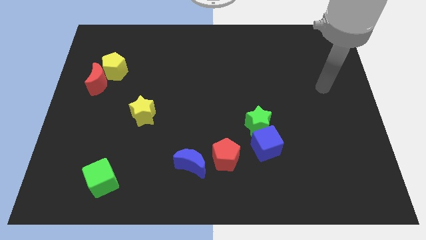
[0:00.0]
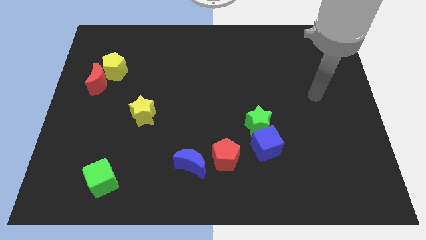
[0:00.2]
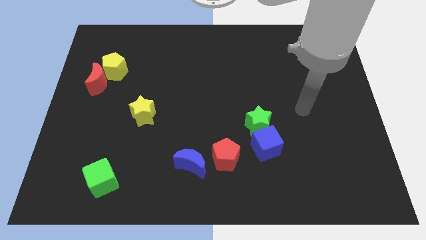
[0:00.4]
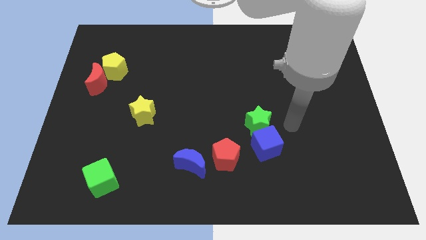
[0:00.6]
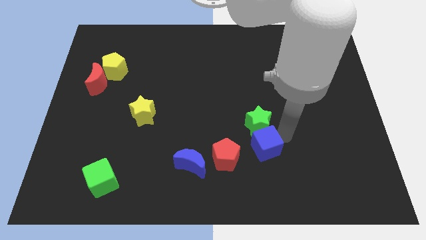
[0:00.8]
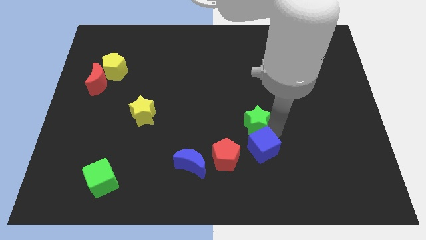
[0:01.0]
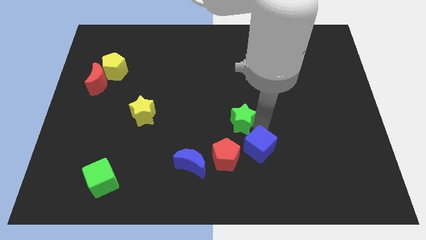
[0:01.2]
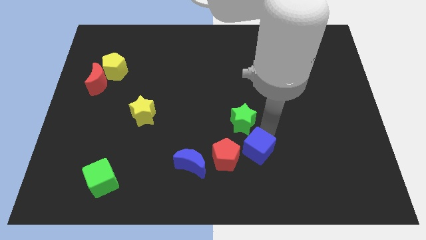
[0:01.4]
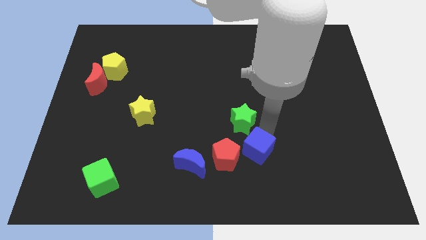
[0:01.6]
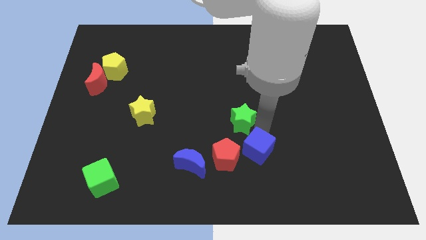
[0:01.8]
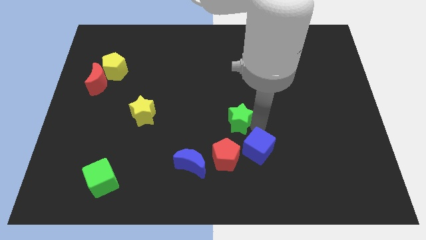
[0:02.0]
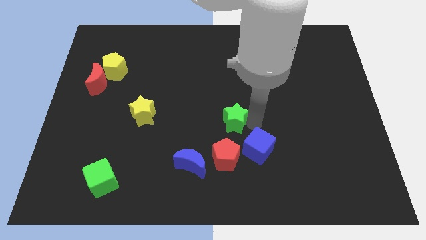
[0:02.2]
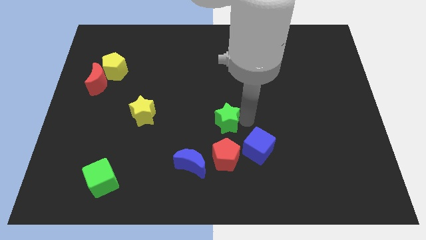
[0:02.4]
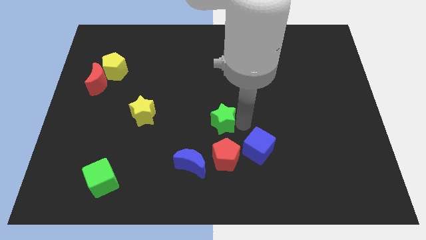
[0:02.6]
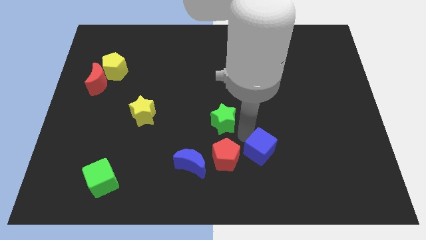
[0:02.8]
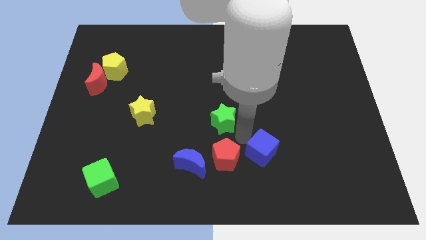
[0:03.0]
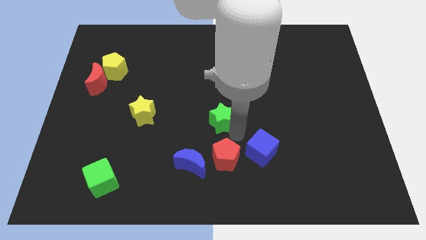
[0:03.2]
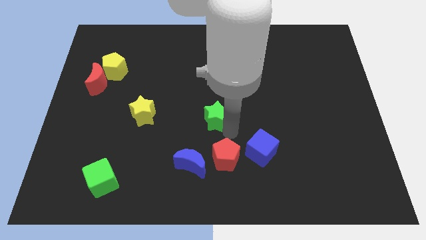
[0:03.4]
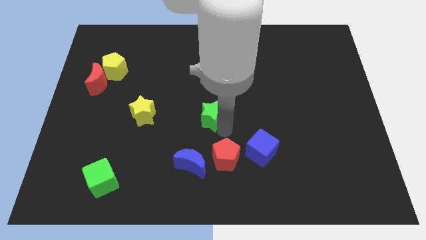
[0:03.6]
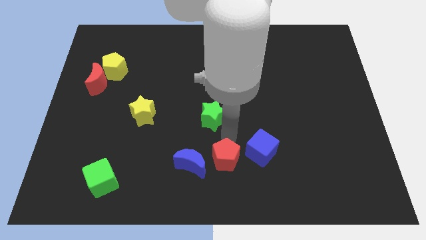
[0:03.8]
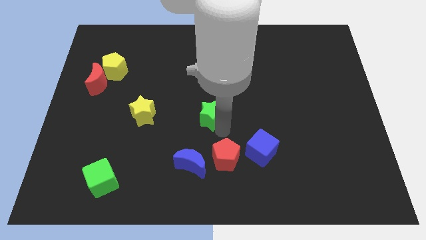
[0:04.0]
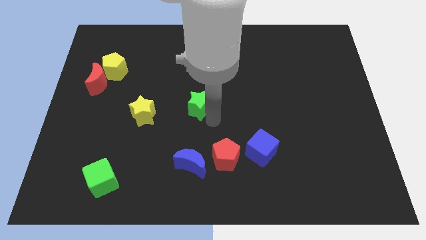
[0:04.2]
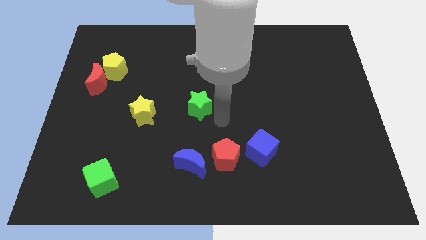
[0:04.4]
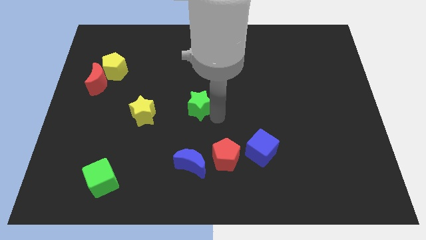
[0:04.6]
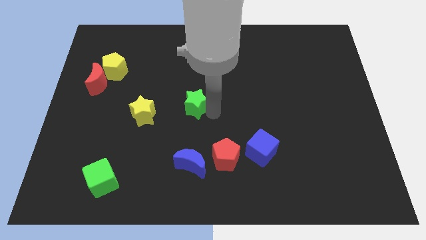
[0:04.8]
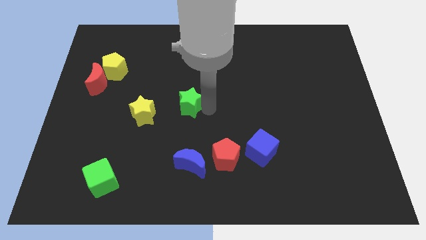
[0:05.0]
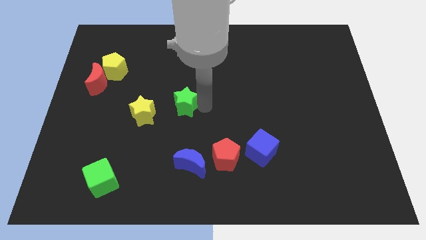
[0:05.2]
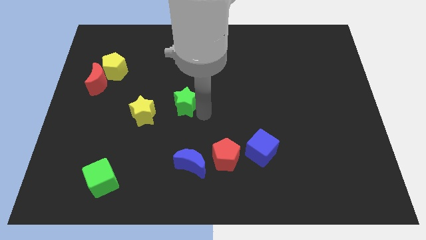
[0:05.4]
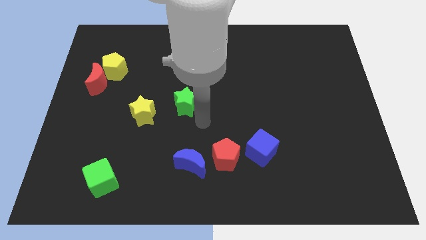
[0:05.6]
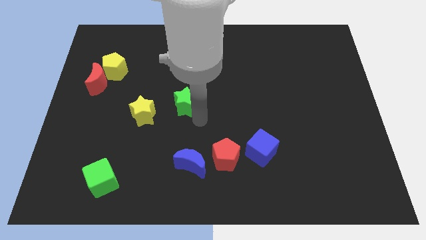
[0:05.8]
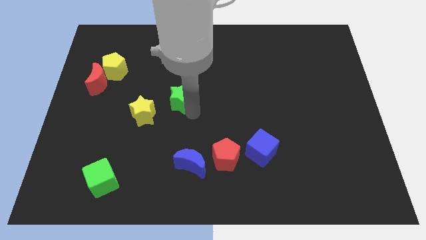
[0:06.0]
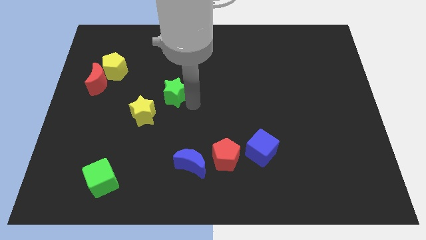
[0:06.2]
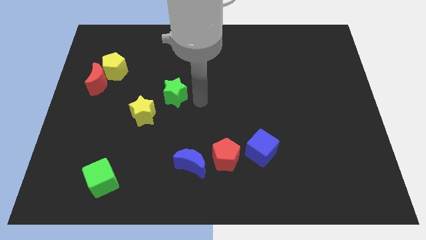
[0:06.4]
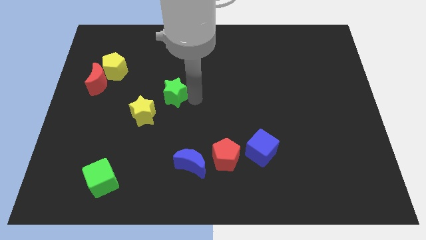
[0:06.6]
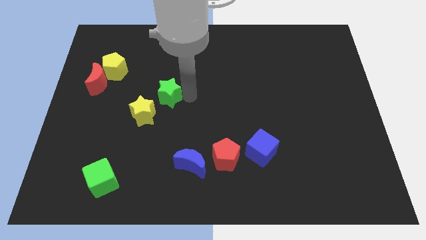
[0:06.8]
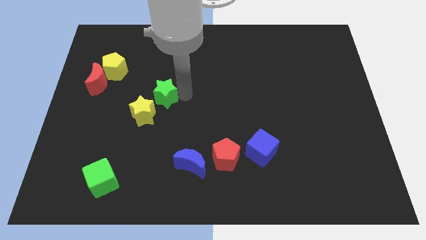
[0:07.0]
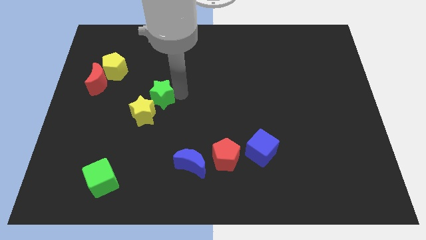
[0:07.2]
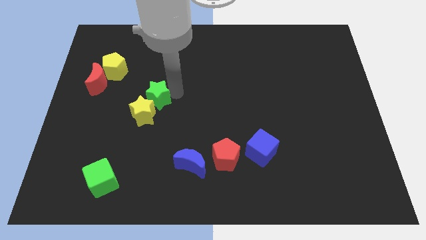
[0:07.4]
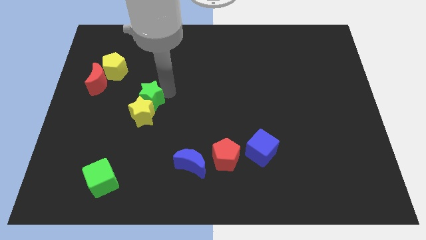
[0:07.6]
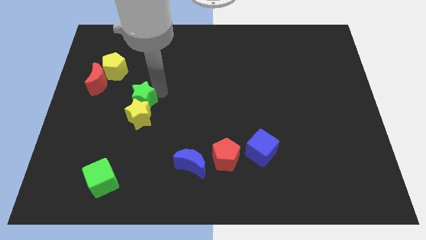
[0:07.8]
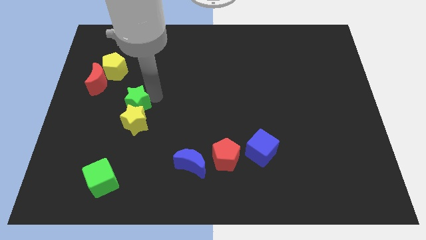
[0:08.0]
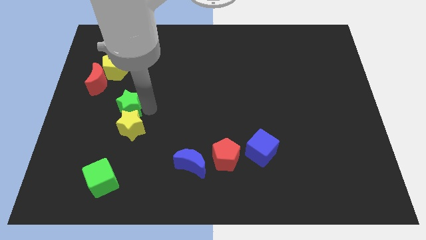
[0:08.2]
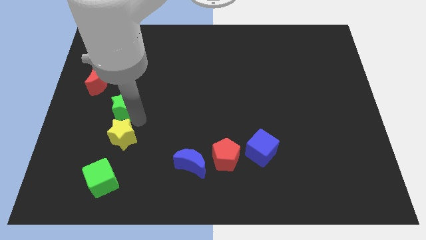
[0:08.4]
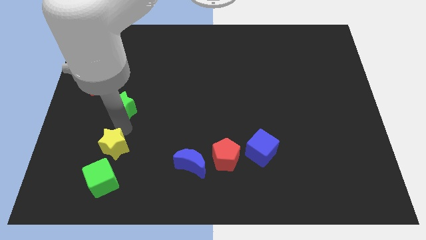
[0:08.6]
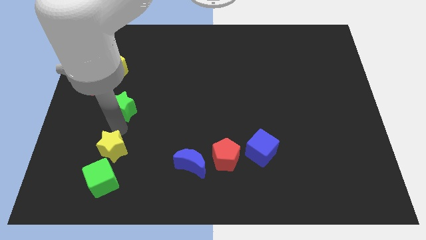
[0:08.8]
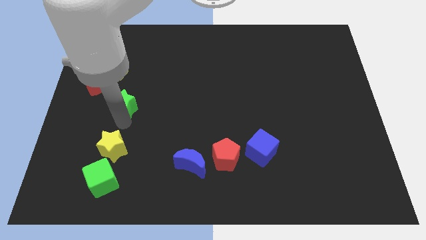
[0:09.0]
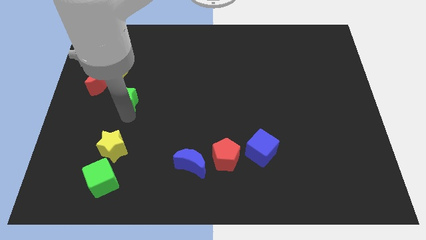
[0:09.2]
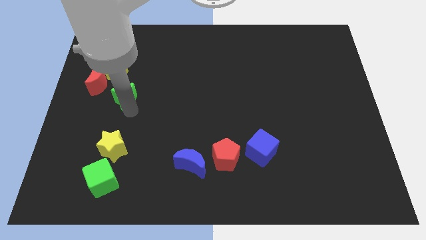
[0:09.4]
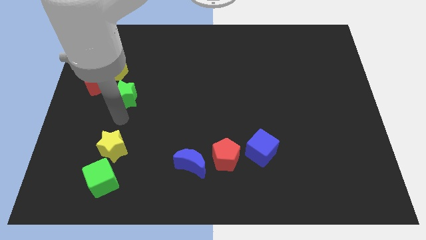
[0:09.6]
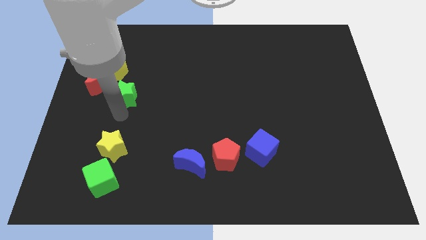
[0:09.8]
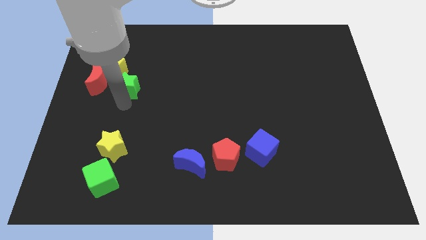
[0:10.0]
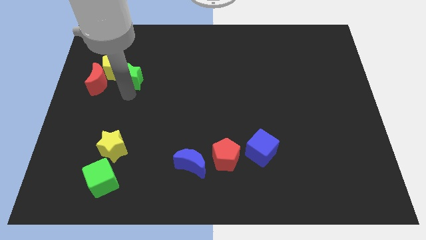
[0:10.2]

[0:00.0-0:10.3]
slide the green star towards the yellow pentagon

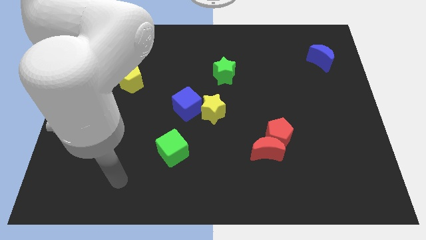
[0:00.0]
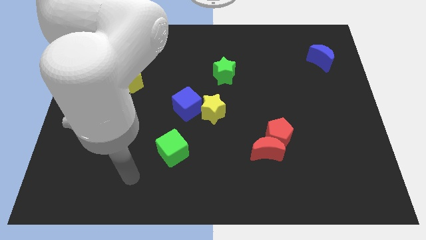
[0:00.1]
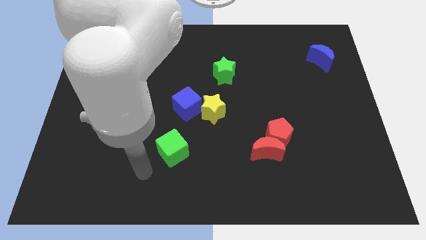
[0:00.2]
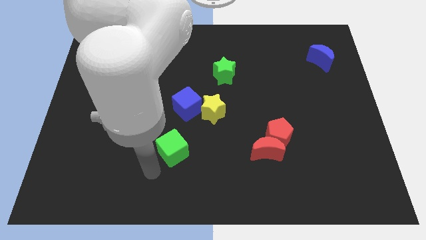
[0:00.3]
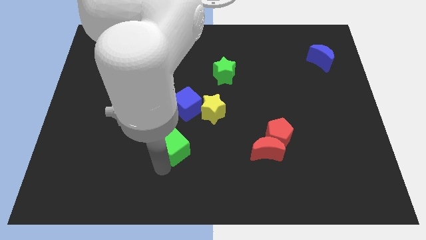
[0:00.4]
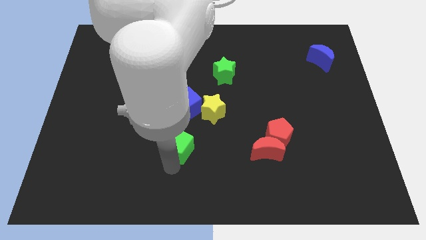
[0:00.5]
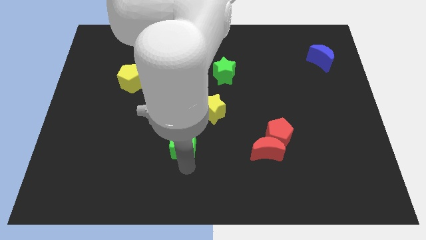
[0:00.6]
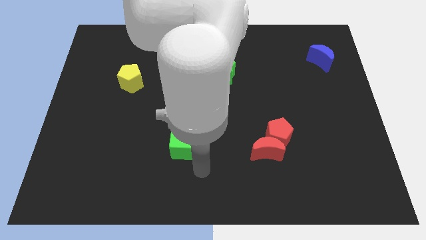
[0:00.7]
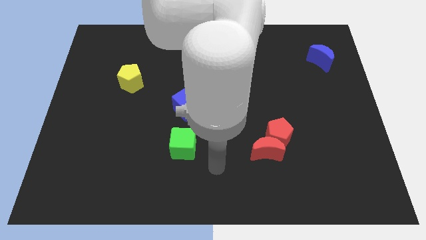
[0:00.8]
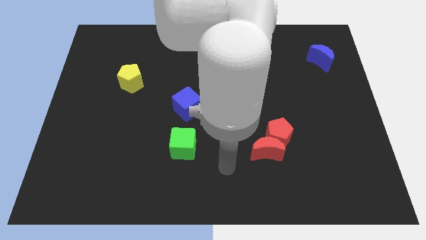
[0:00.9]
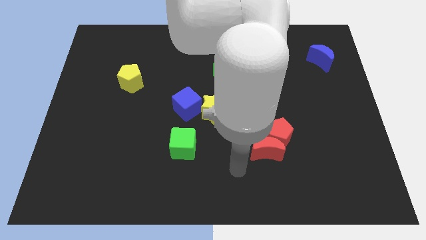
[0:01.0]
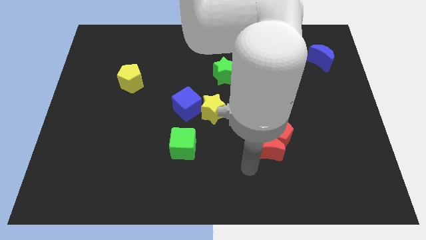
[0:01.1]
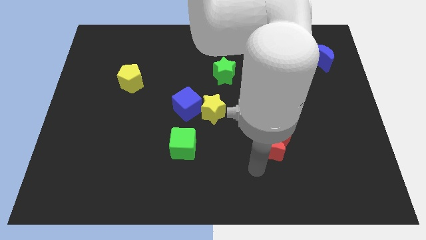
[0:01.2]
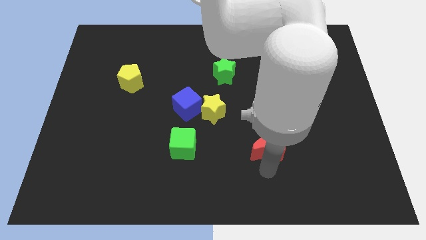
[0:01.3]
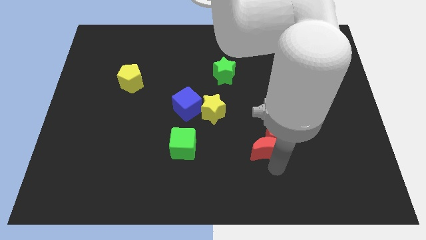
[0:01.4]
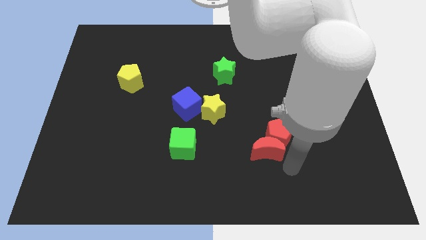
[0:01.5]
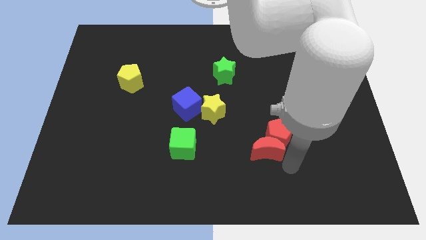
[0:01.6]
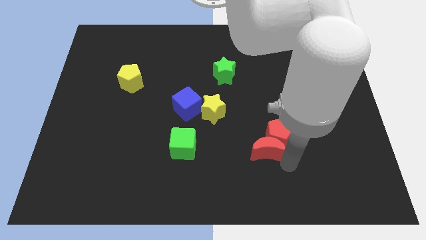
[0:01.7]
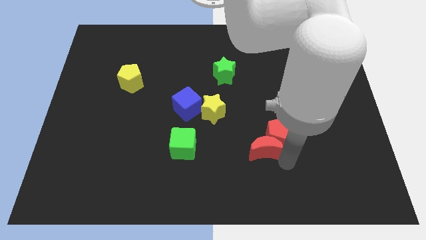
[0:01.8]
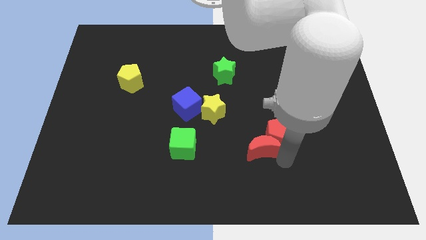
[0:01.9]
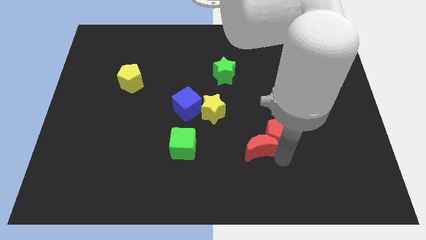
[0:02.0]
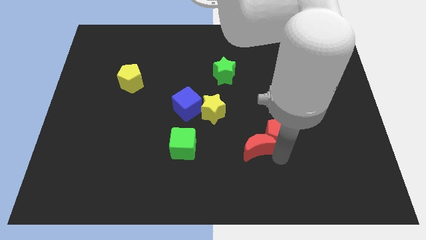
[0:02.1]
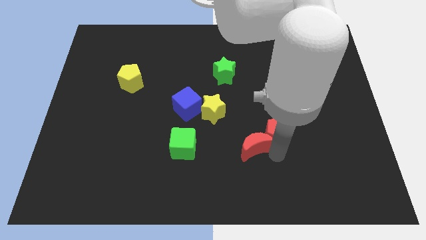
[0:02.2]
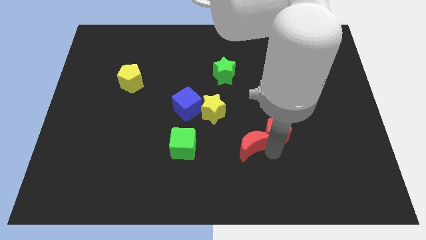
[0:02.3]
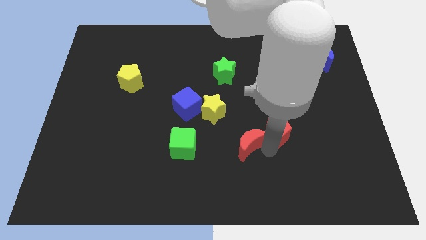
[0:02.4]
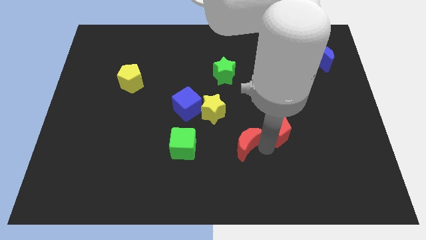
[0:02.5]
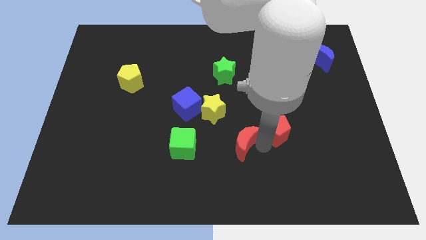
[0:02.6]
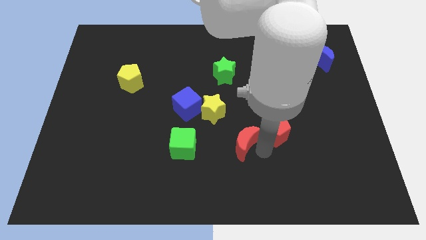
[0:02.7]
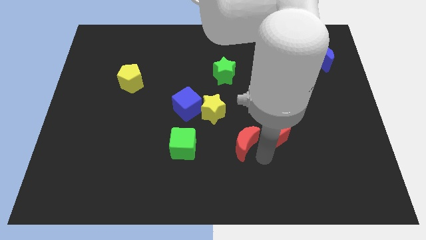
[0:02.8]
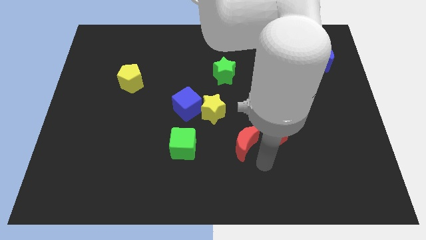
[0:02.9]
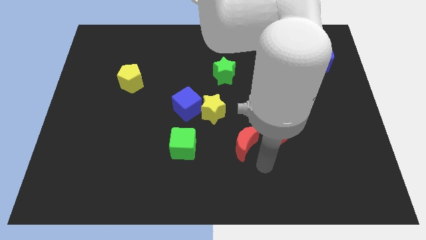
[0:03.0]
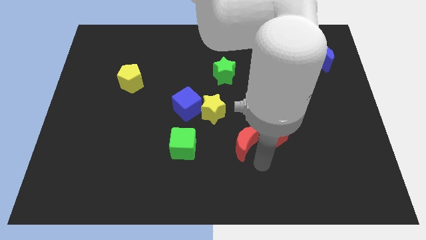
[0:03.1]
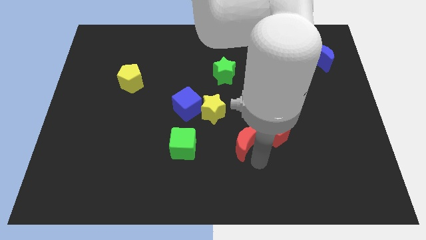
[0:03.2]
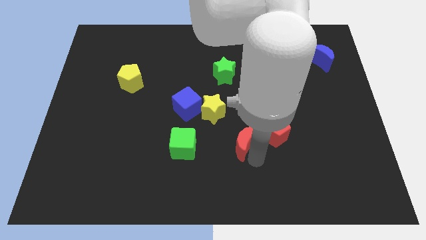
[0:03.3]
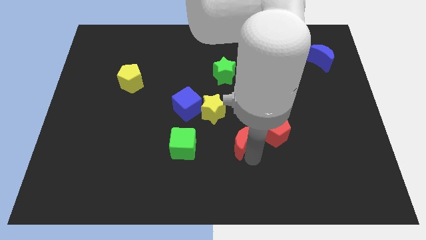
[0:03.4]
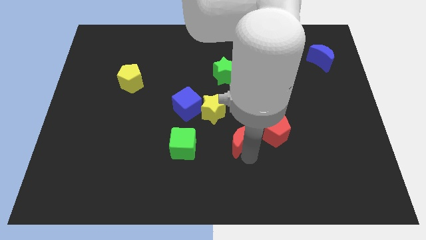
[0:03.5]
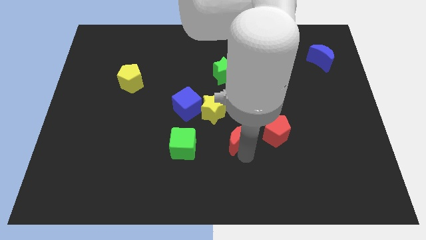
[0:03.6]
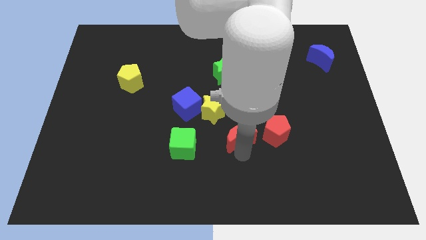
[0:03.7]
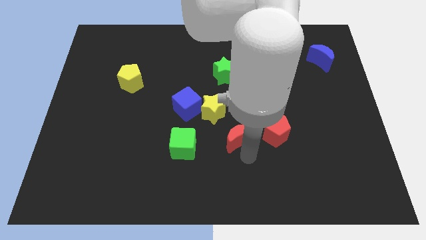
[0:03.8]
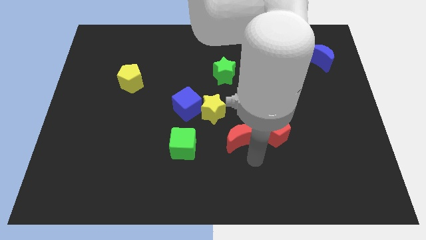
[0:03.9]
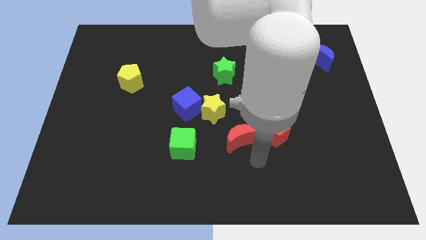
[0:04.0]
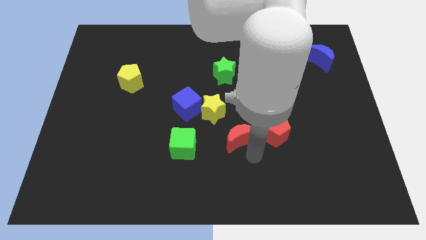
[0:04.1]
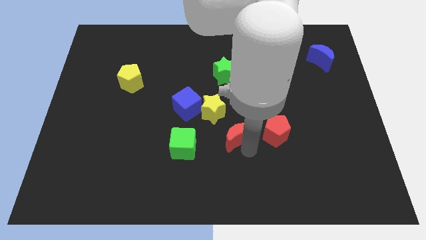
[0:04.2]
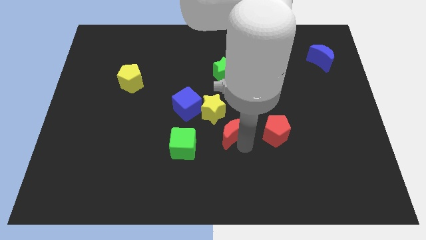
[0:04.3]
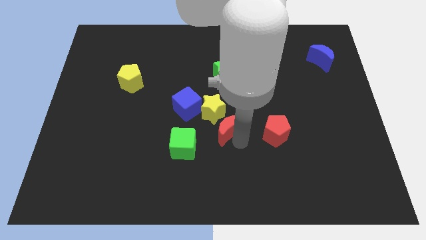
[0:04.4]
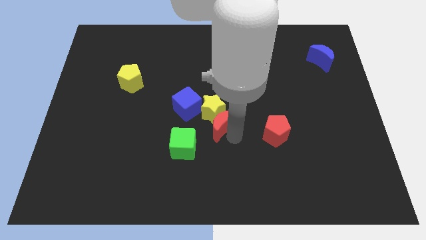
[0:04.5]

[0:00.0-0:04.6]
move the red moon close to the yellow star
